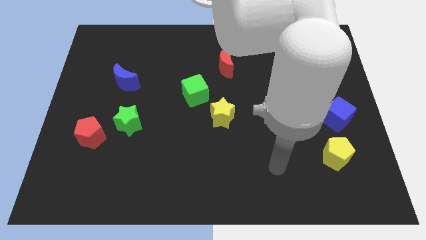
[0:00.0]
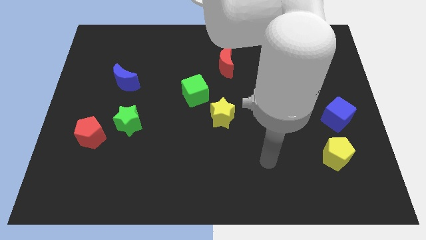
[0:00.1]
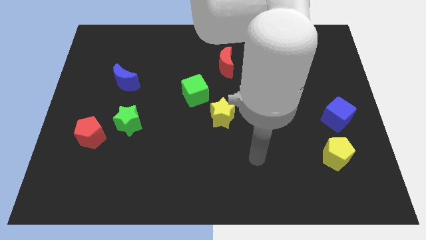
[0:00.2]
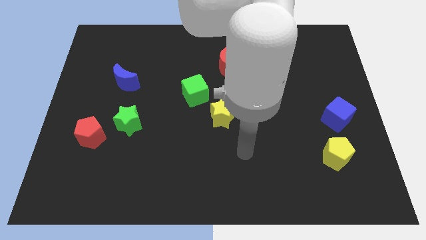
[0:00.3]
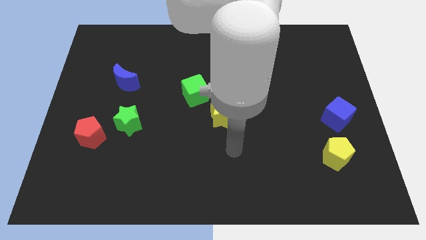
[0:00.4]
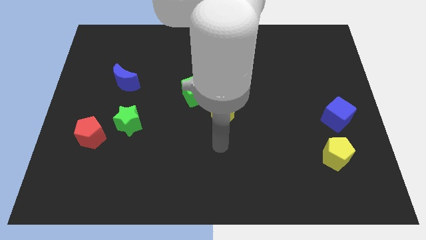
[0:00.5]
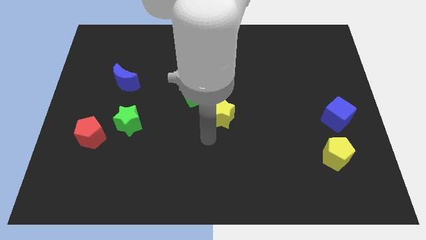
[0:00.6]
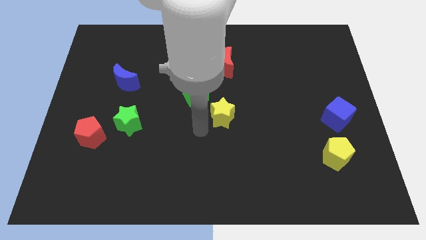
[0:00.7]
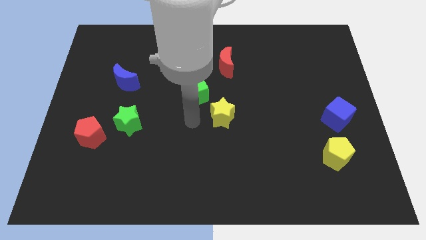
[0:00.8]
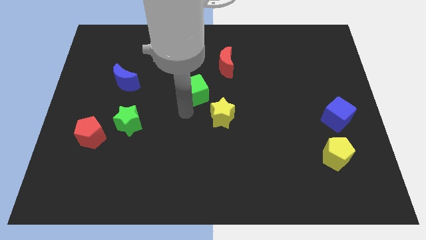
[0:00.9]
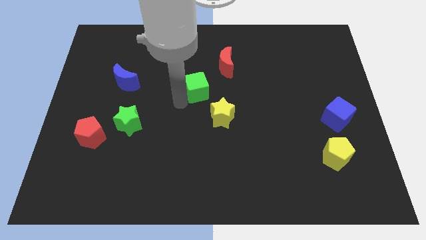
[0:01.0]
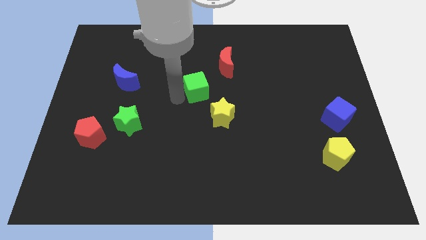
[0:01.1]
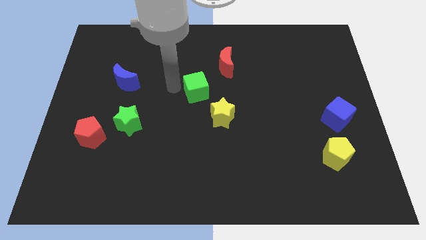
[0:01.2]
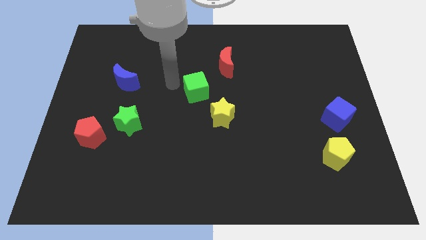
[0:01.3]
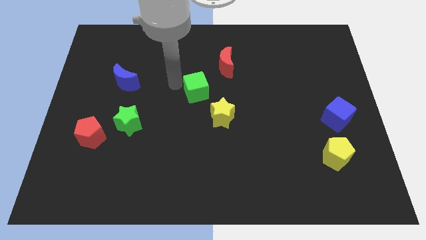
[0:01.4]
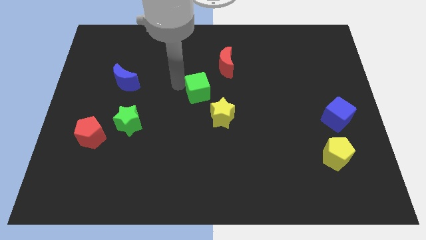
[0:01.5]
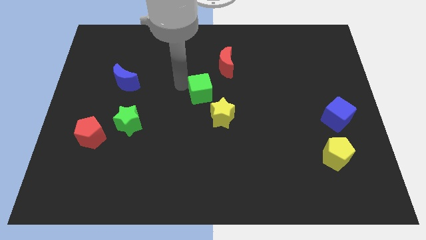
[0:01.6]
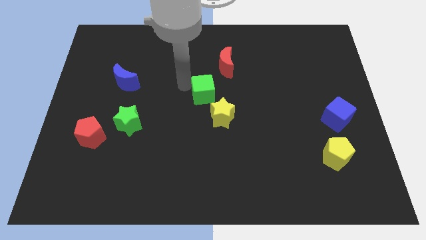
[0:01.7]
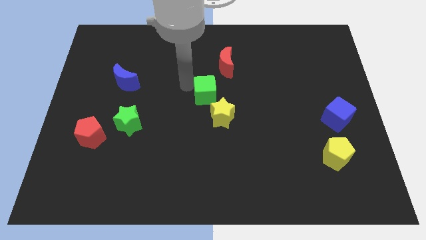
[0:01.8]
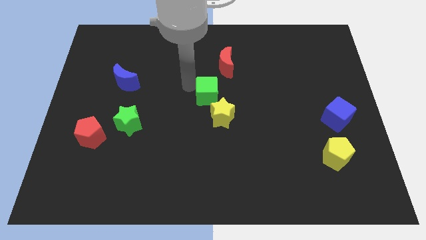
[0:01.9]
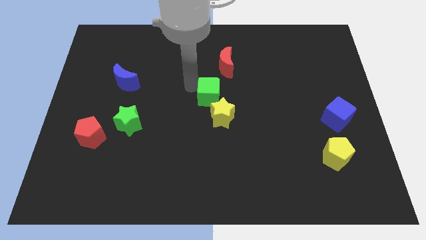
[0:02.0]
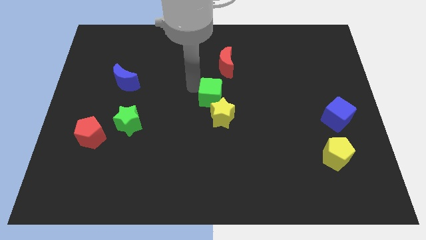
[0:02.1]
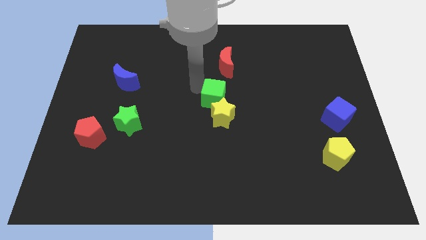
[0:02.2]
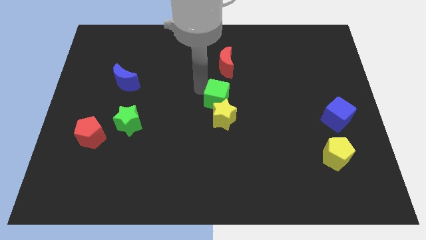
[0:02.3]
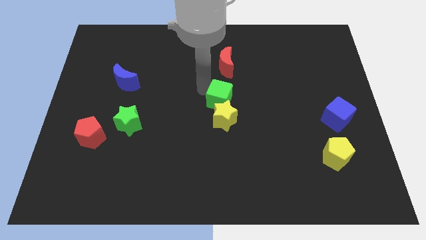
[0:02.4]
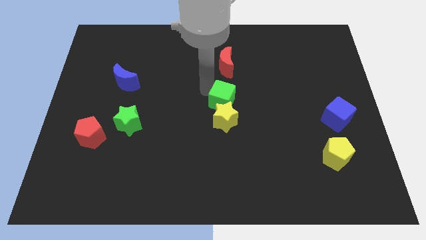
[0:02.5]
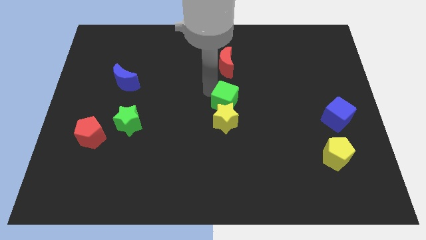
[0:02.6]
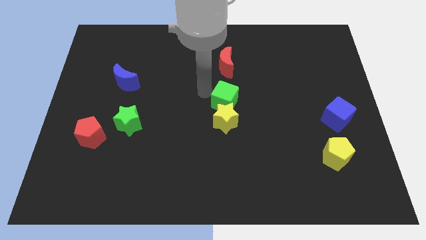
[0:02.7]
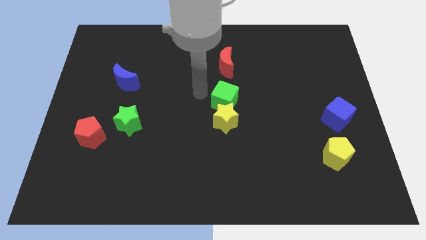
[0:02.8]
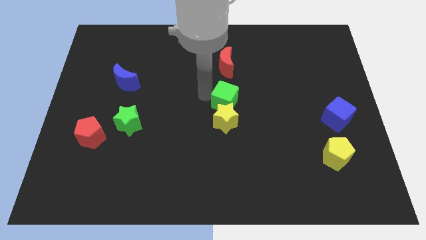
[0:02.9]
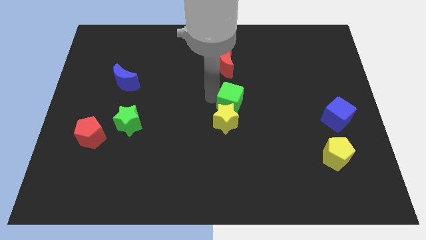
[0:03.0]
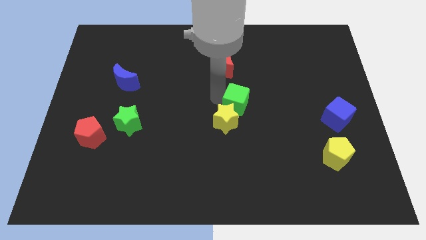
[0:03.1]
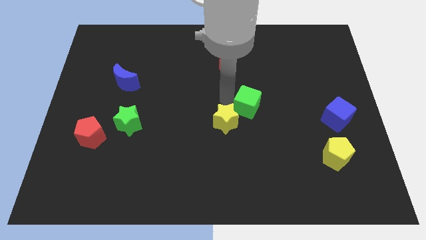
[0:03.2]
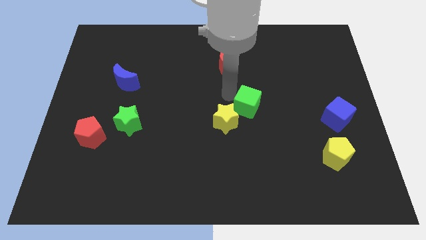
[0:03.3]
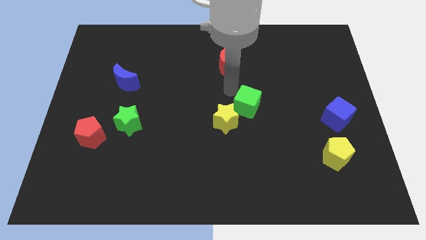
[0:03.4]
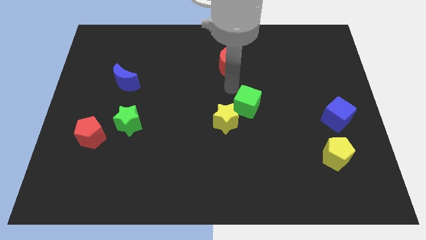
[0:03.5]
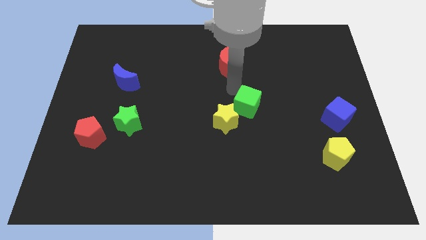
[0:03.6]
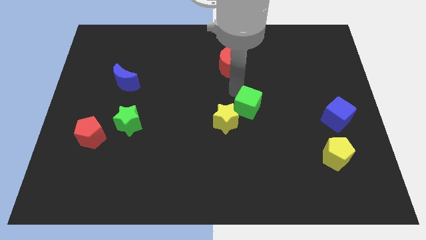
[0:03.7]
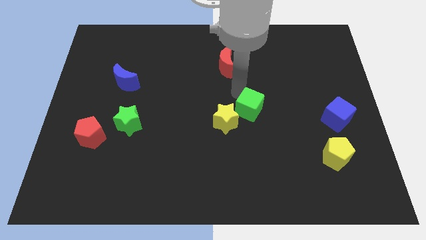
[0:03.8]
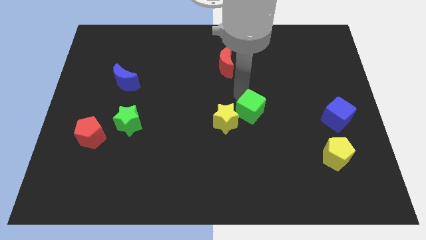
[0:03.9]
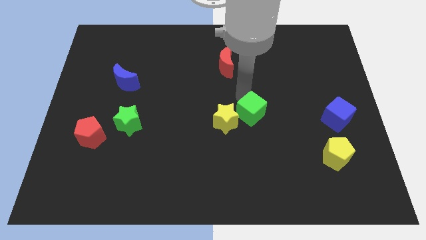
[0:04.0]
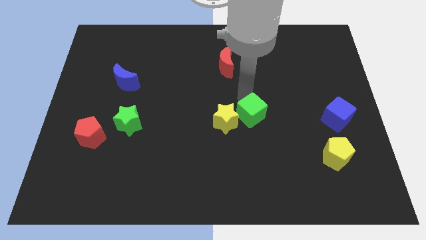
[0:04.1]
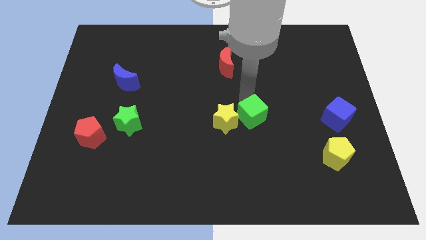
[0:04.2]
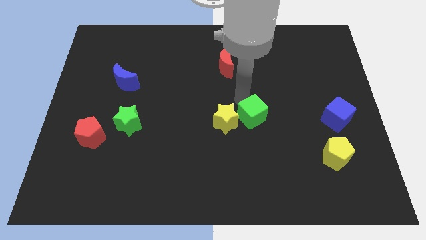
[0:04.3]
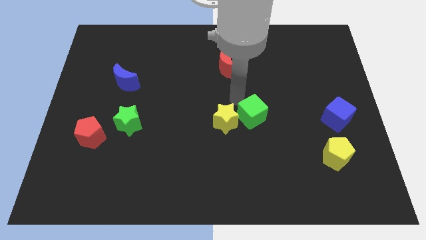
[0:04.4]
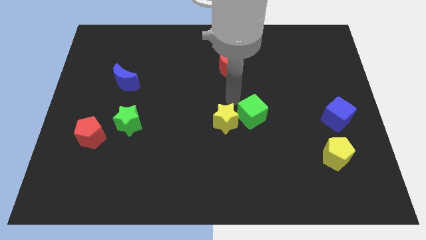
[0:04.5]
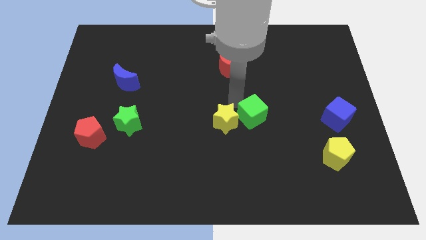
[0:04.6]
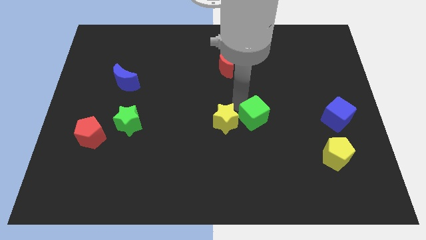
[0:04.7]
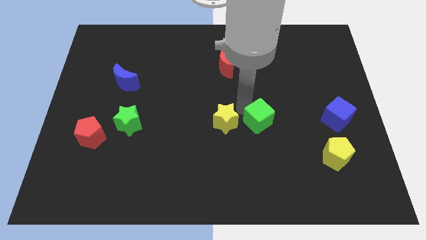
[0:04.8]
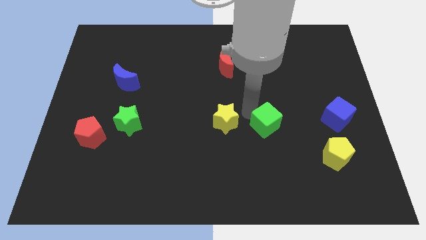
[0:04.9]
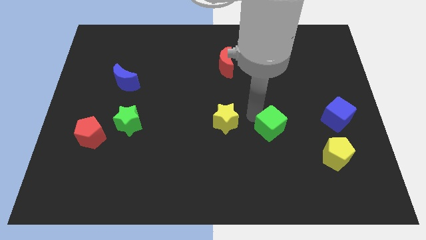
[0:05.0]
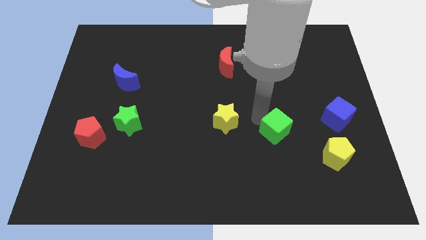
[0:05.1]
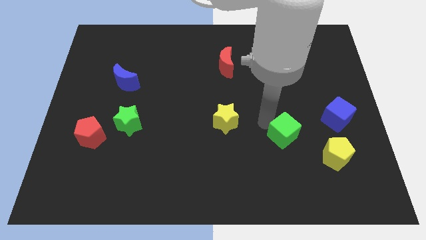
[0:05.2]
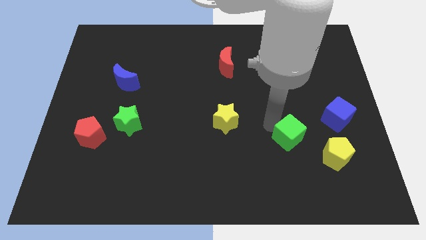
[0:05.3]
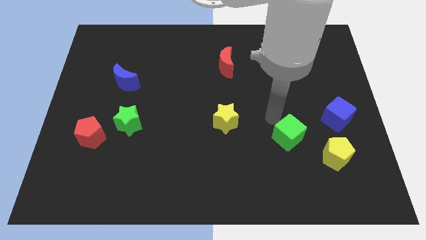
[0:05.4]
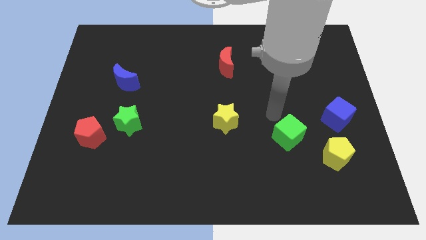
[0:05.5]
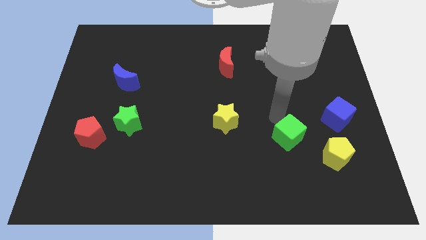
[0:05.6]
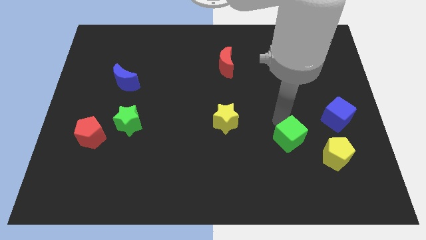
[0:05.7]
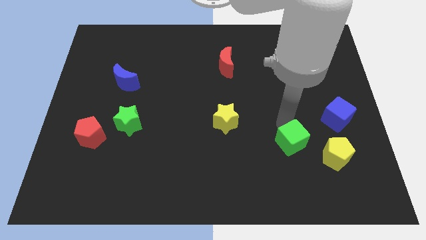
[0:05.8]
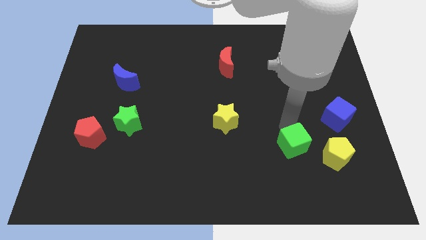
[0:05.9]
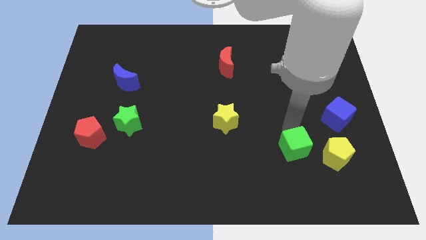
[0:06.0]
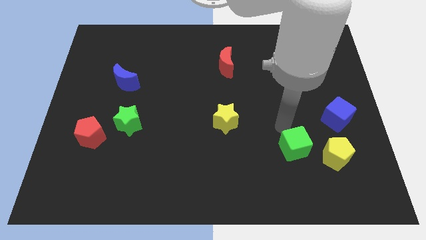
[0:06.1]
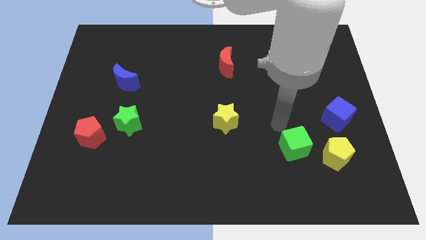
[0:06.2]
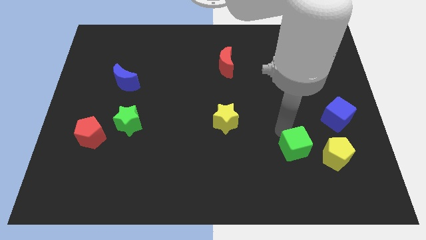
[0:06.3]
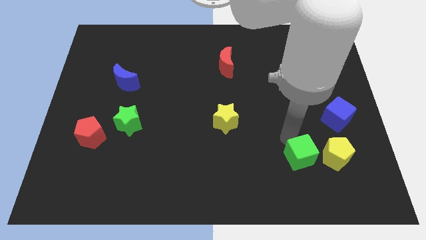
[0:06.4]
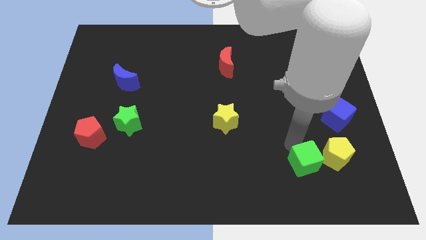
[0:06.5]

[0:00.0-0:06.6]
put the green cube diagonally down and to the left of the yellow pentagon
